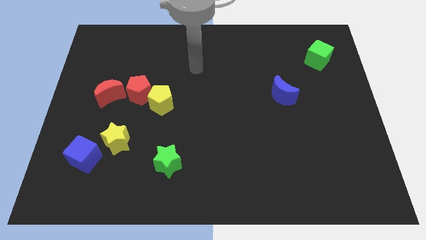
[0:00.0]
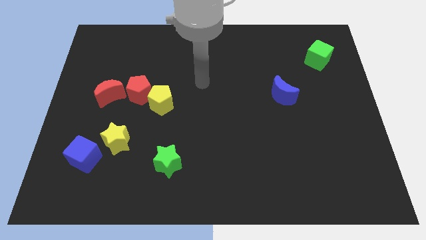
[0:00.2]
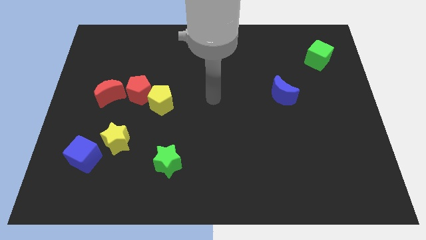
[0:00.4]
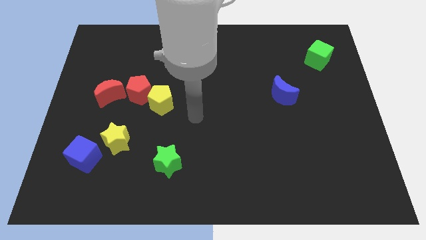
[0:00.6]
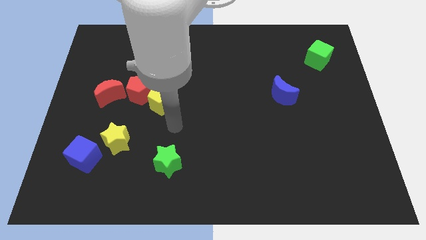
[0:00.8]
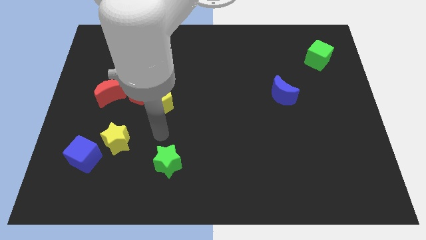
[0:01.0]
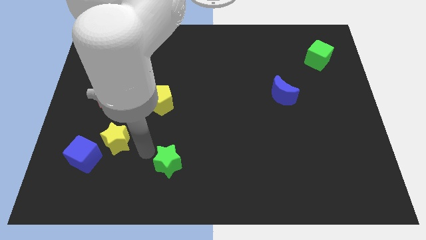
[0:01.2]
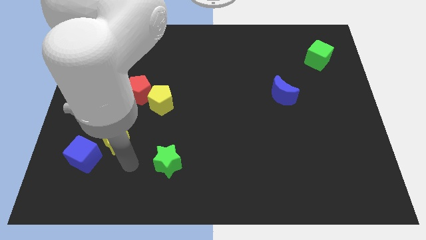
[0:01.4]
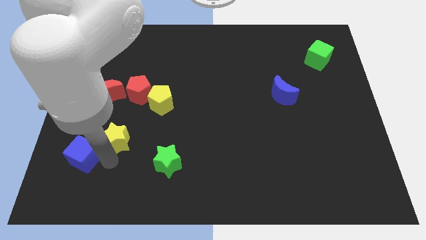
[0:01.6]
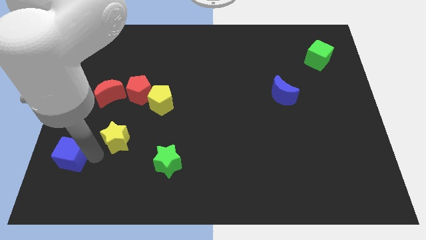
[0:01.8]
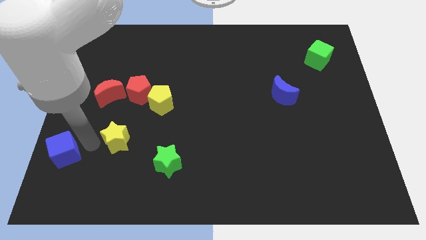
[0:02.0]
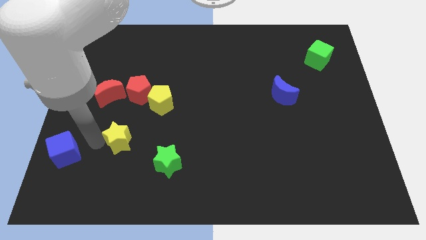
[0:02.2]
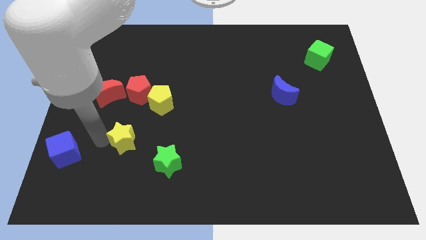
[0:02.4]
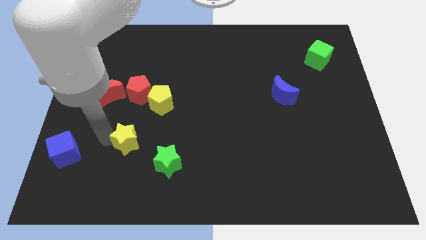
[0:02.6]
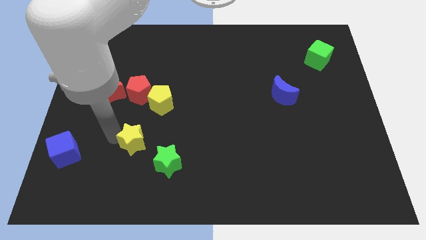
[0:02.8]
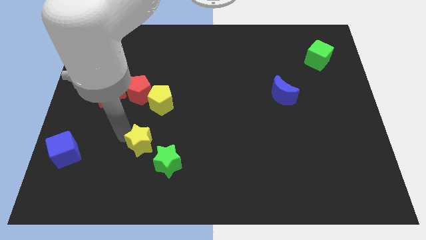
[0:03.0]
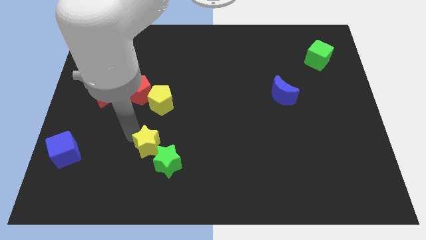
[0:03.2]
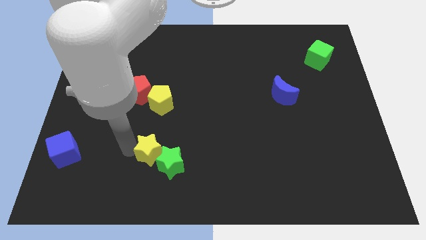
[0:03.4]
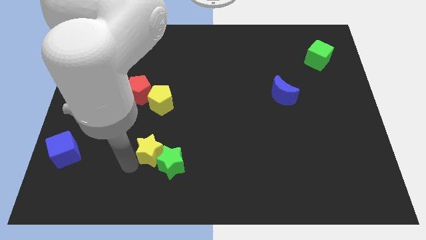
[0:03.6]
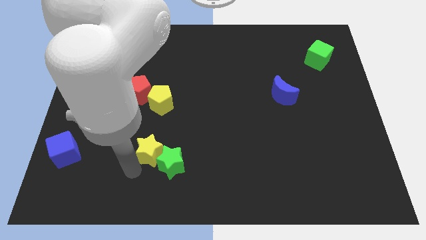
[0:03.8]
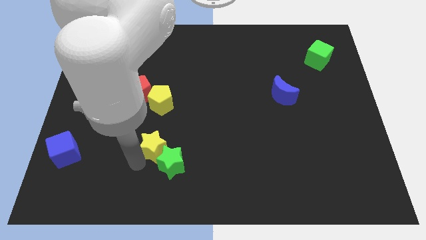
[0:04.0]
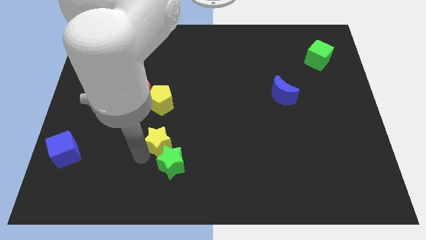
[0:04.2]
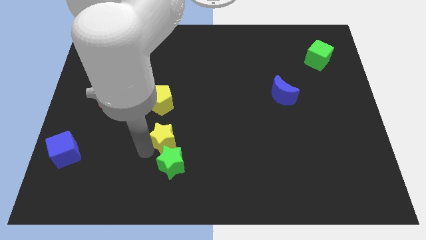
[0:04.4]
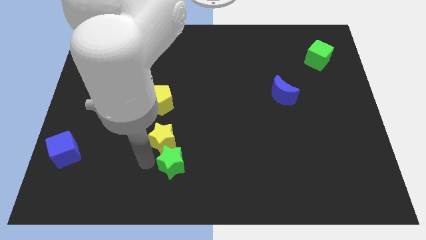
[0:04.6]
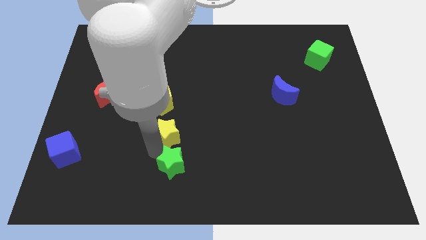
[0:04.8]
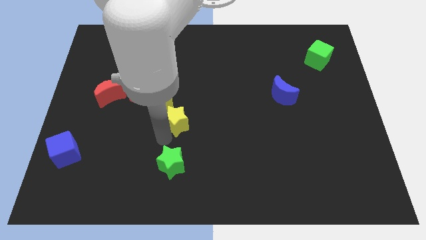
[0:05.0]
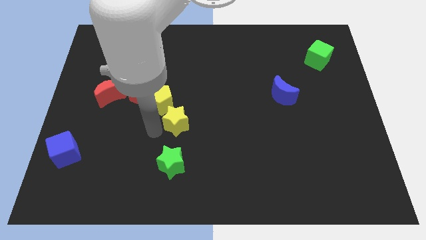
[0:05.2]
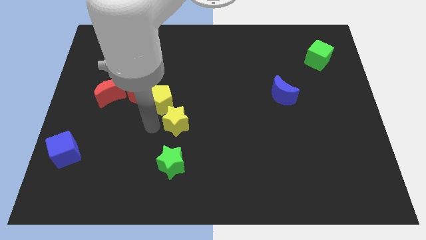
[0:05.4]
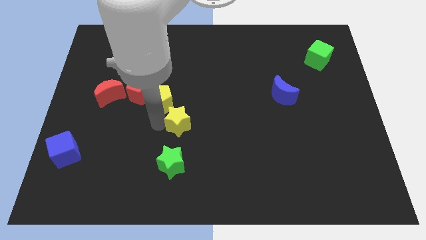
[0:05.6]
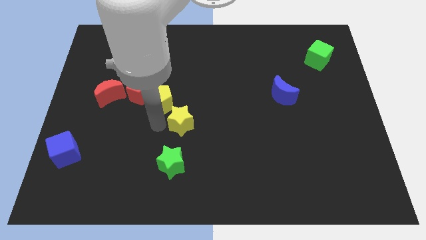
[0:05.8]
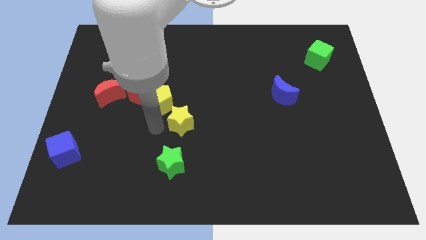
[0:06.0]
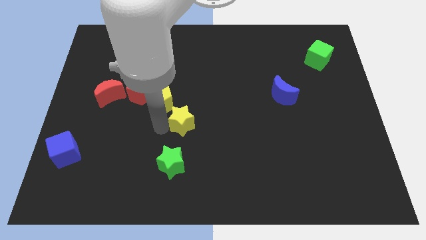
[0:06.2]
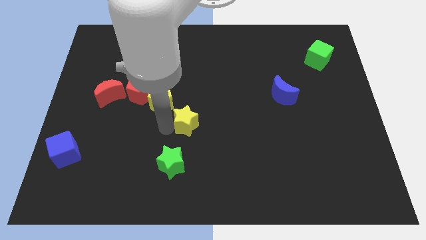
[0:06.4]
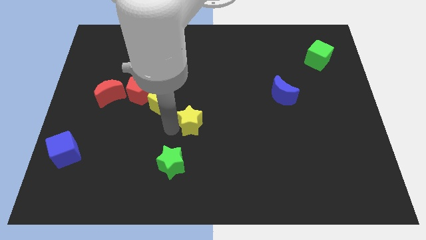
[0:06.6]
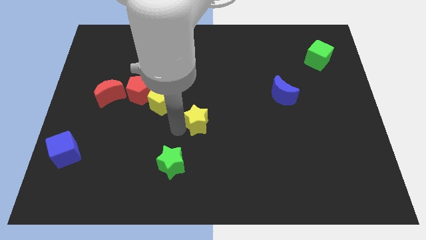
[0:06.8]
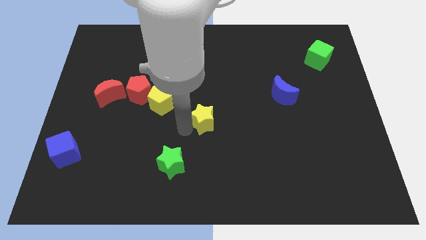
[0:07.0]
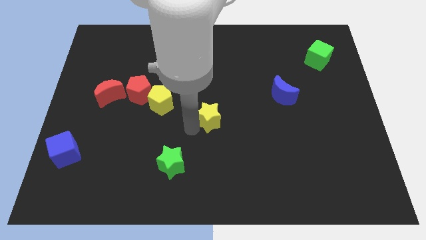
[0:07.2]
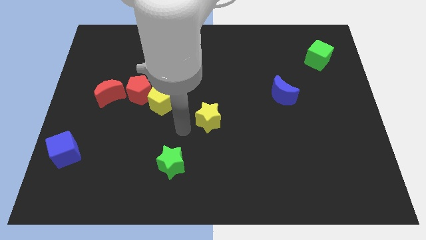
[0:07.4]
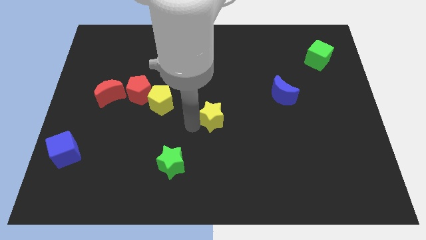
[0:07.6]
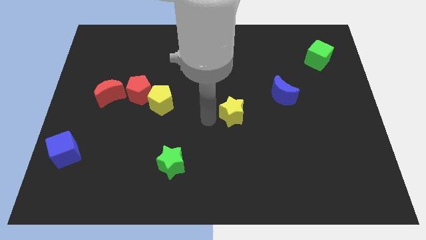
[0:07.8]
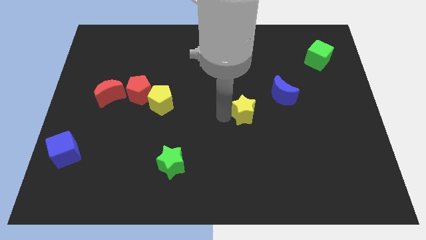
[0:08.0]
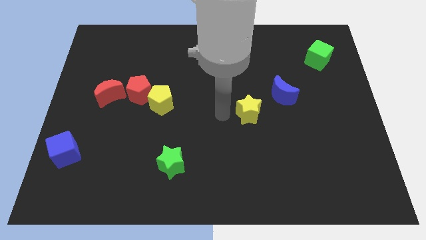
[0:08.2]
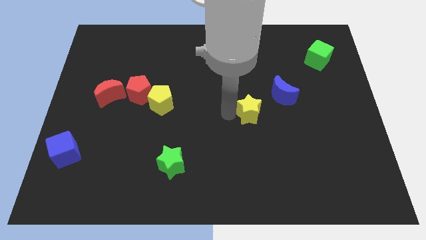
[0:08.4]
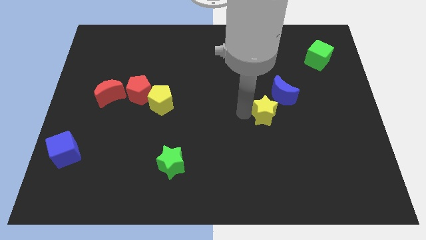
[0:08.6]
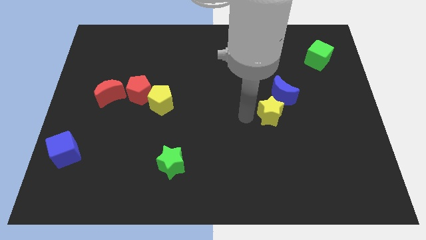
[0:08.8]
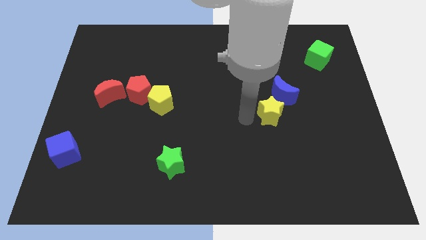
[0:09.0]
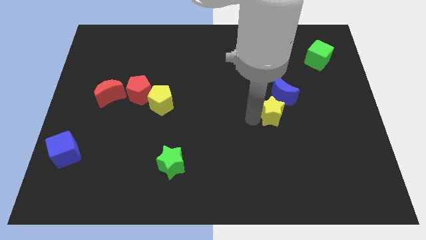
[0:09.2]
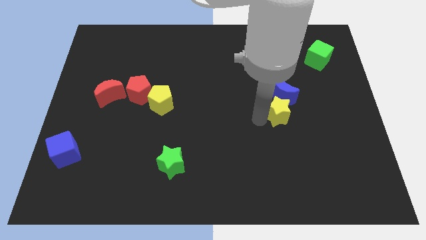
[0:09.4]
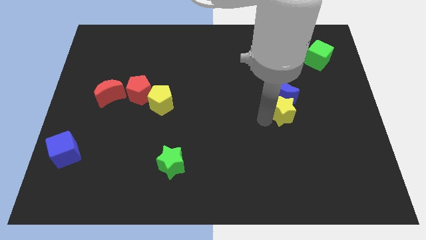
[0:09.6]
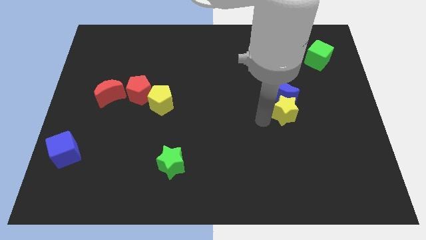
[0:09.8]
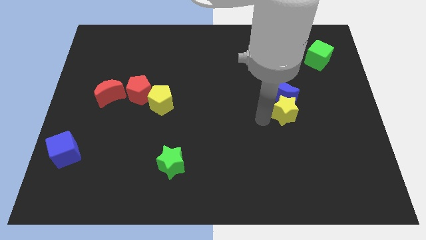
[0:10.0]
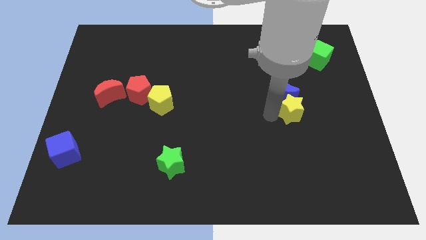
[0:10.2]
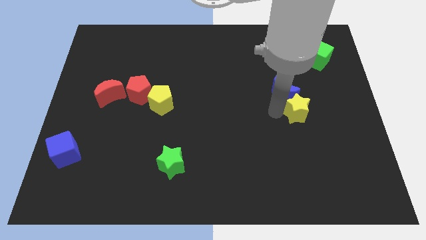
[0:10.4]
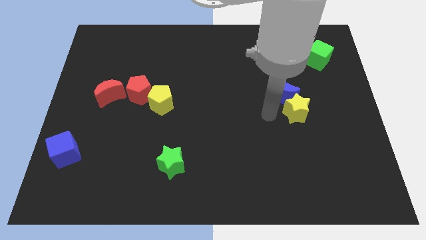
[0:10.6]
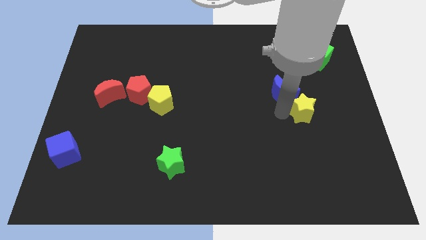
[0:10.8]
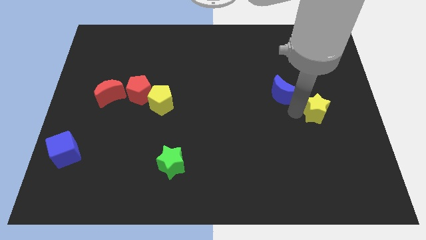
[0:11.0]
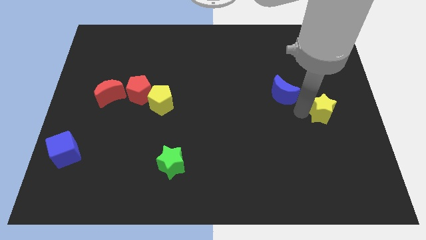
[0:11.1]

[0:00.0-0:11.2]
push the yellow star to the right side of the board
